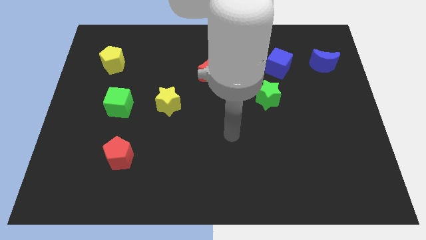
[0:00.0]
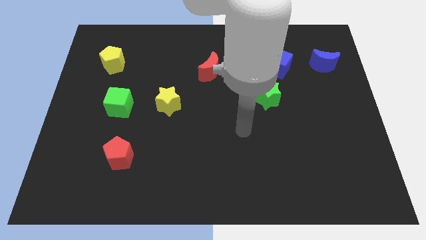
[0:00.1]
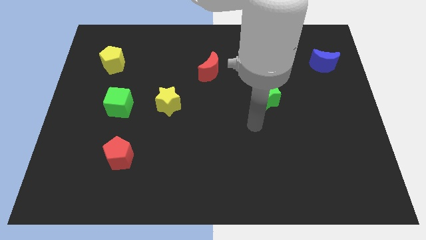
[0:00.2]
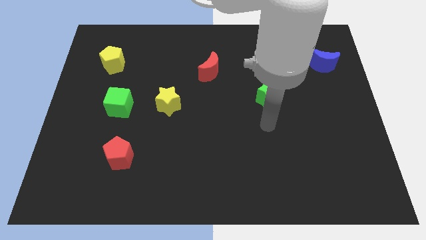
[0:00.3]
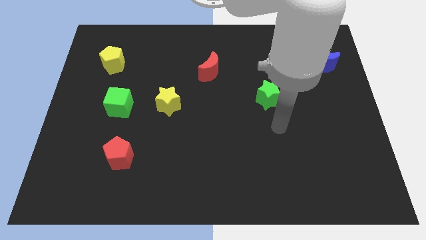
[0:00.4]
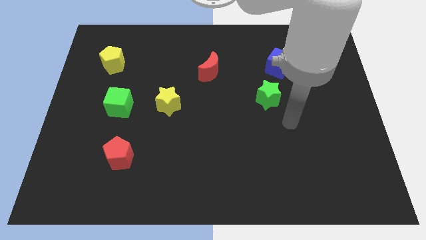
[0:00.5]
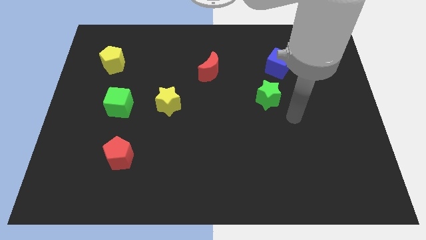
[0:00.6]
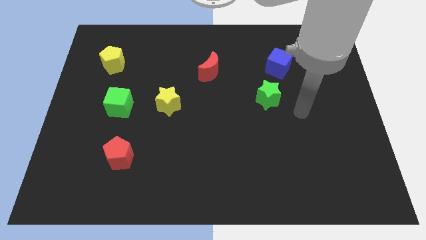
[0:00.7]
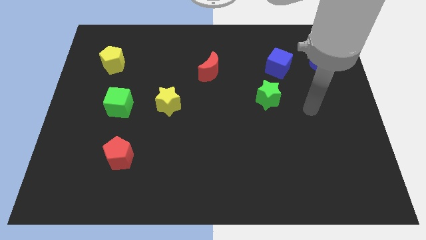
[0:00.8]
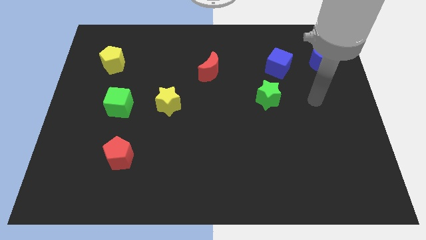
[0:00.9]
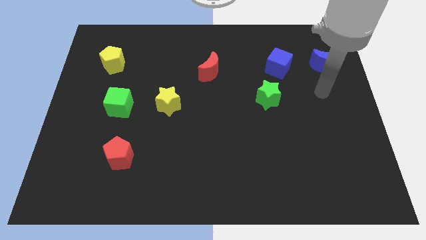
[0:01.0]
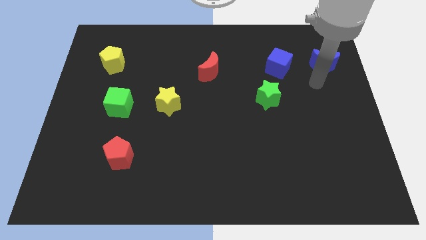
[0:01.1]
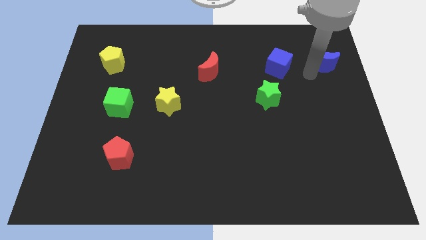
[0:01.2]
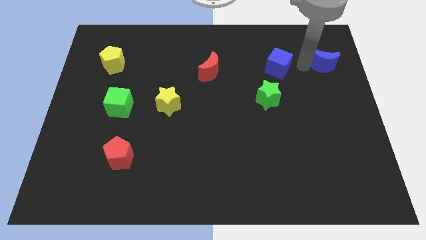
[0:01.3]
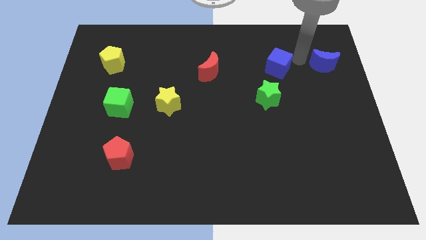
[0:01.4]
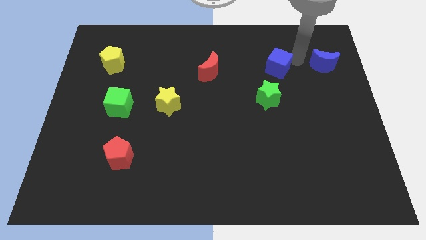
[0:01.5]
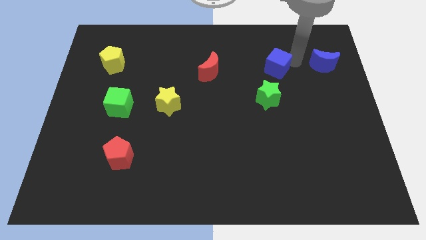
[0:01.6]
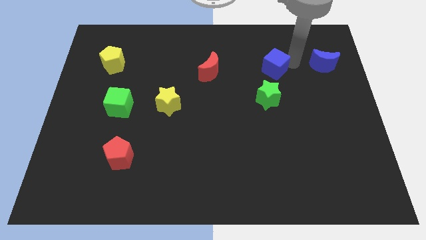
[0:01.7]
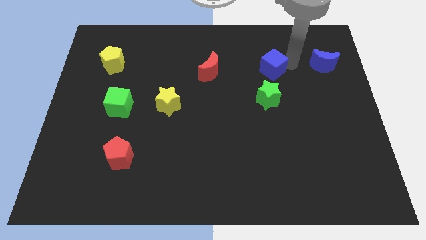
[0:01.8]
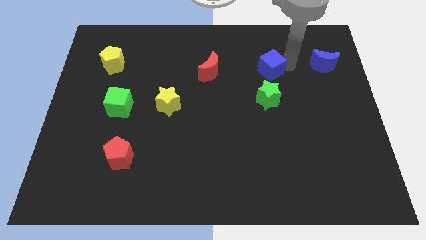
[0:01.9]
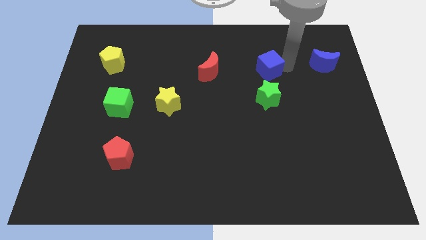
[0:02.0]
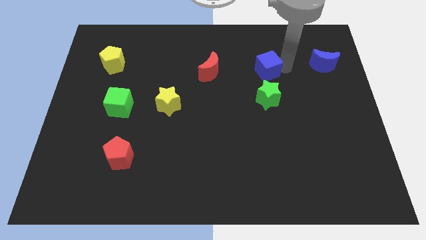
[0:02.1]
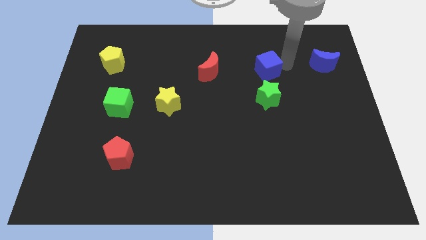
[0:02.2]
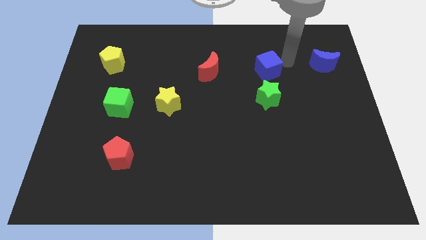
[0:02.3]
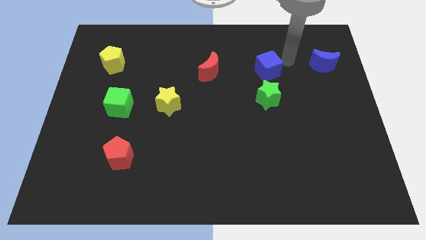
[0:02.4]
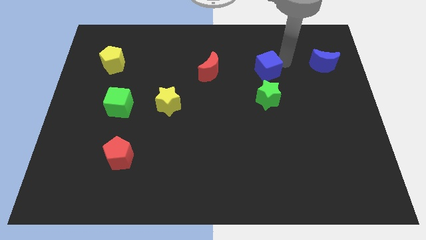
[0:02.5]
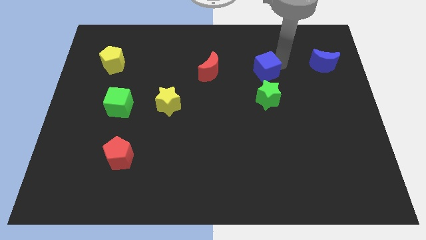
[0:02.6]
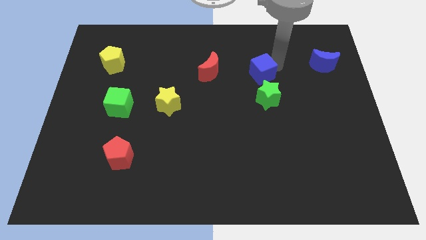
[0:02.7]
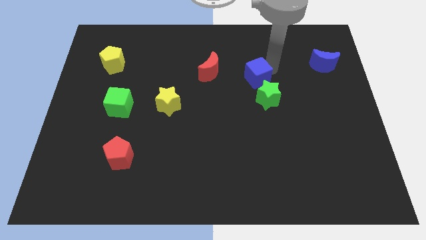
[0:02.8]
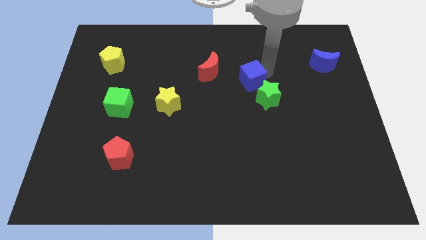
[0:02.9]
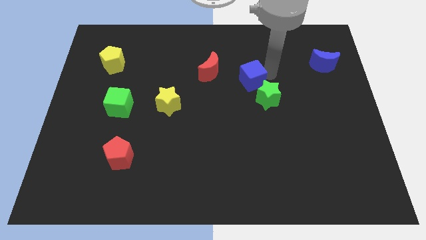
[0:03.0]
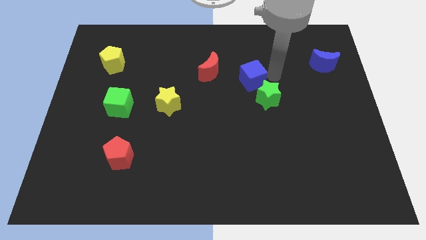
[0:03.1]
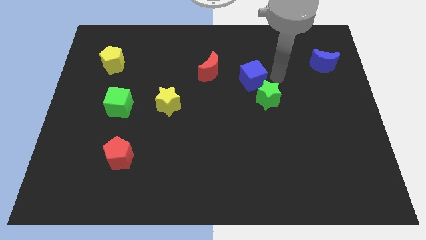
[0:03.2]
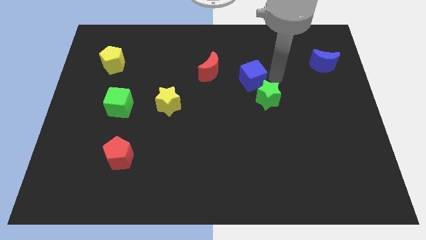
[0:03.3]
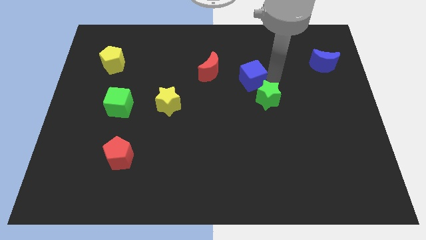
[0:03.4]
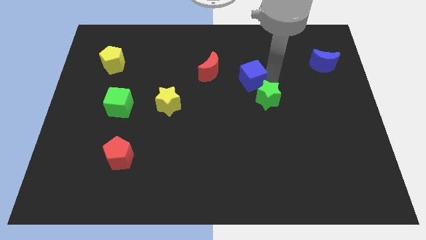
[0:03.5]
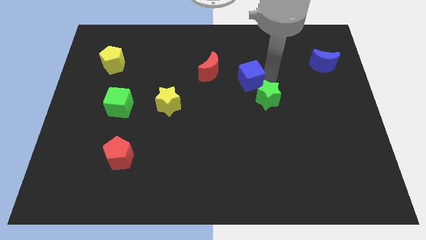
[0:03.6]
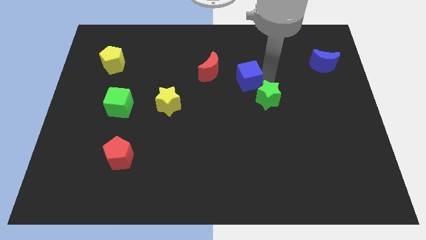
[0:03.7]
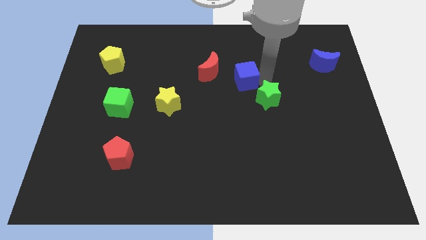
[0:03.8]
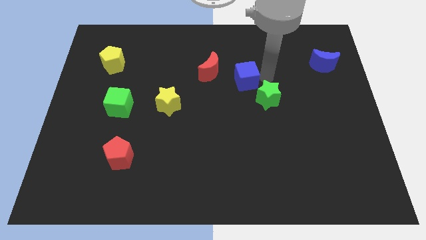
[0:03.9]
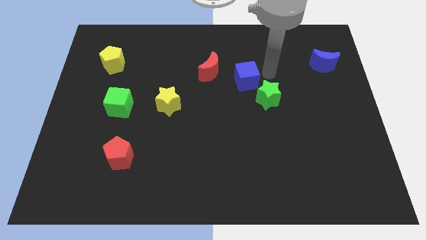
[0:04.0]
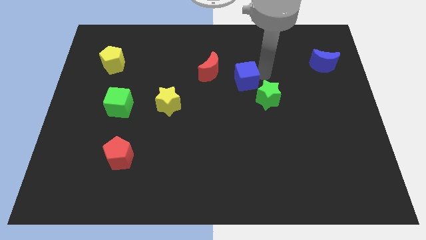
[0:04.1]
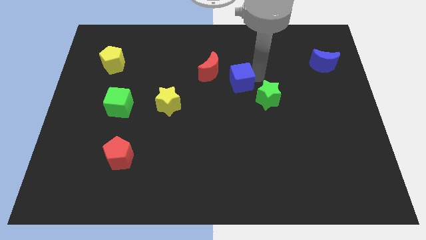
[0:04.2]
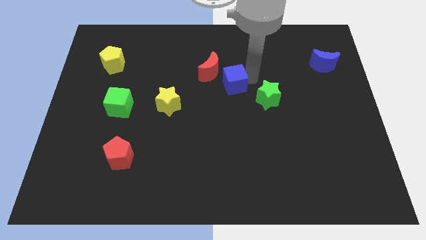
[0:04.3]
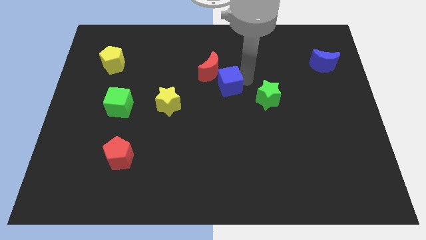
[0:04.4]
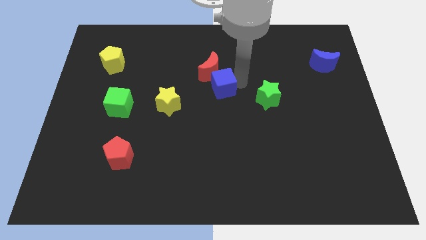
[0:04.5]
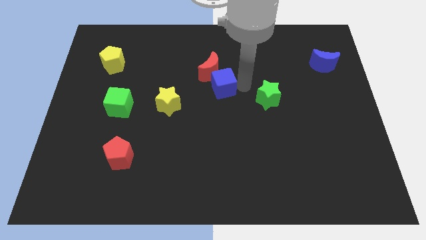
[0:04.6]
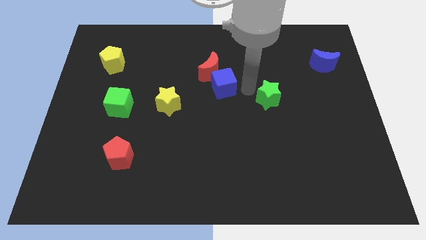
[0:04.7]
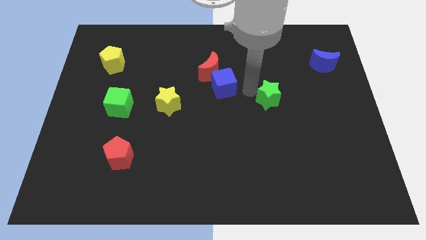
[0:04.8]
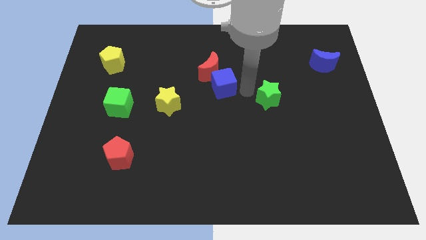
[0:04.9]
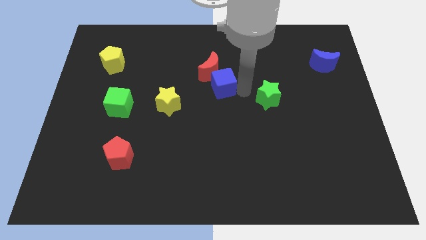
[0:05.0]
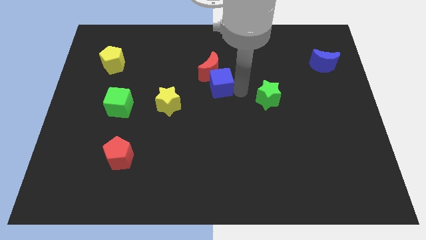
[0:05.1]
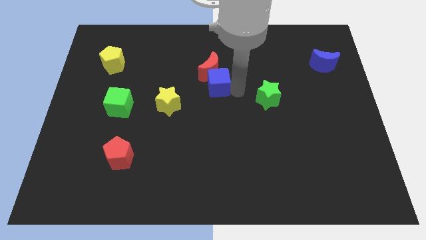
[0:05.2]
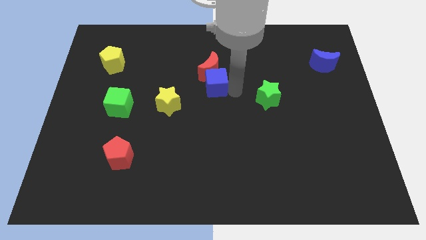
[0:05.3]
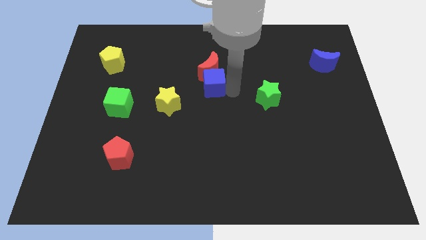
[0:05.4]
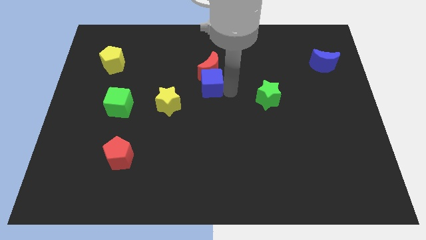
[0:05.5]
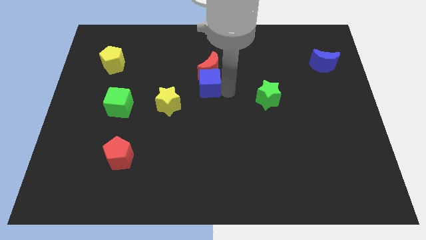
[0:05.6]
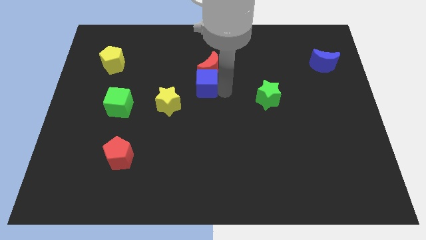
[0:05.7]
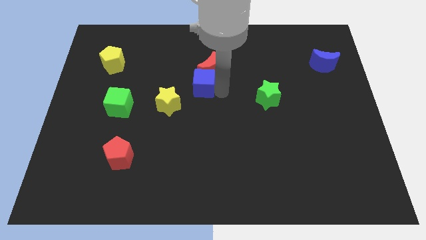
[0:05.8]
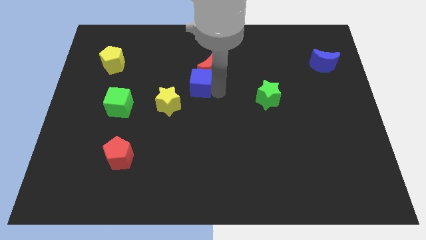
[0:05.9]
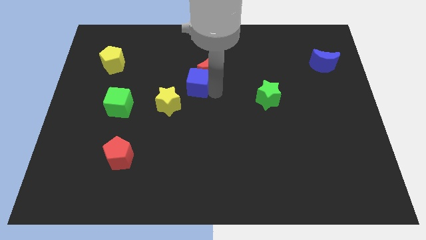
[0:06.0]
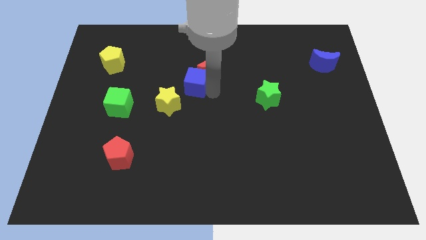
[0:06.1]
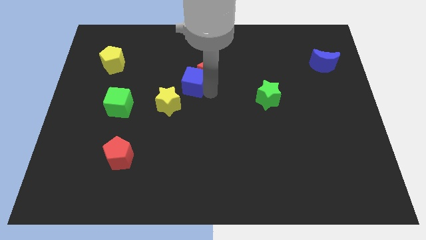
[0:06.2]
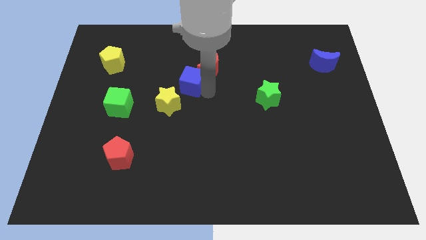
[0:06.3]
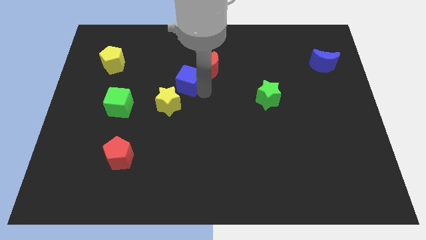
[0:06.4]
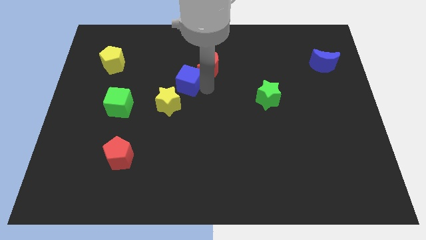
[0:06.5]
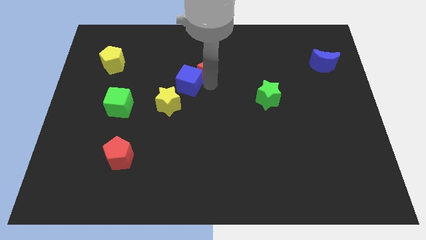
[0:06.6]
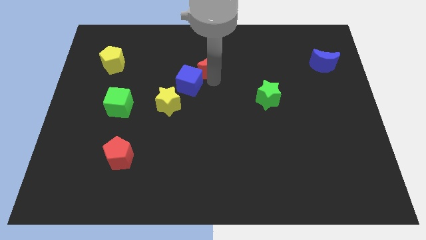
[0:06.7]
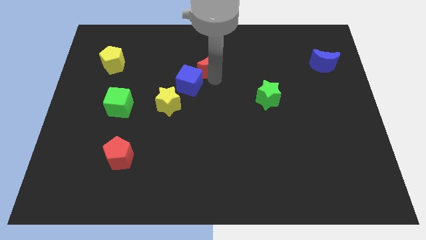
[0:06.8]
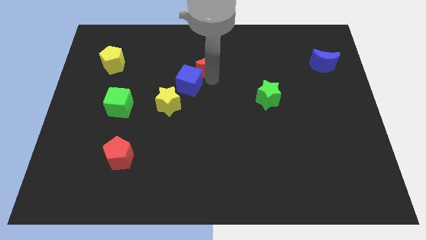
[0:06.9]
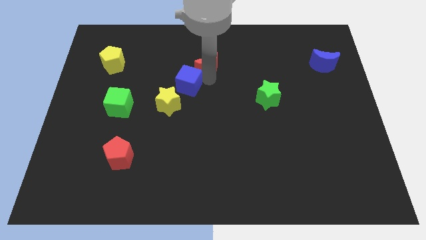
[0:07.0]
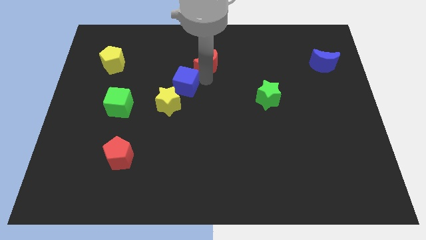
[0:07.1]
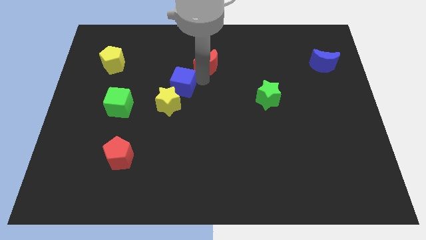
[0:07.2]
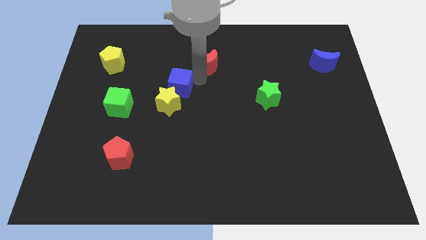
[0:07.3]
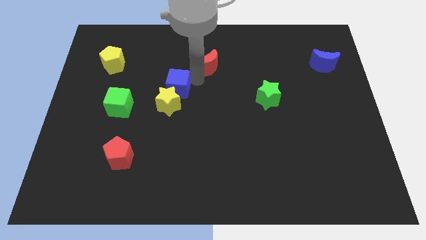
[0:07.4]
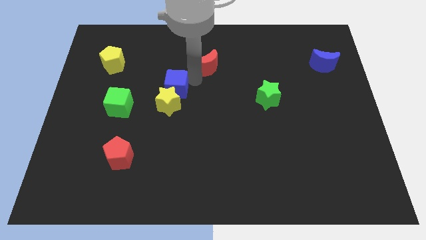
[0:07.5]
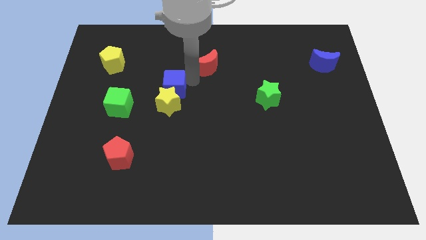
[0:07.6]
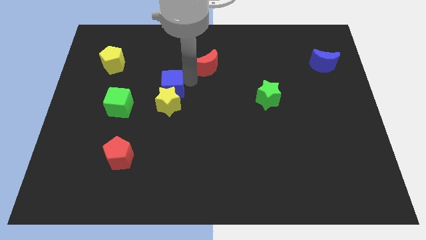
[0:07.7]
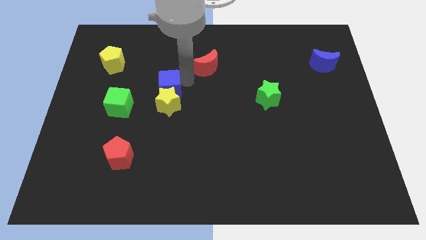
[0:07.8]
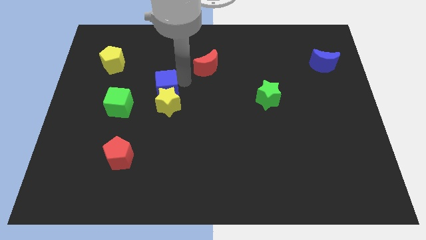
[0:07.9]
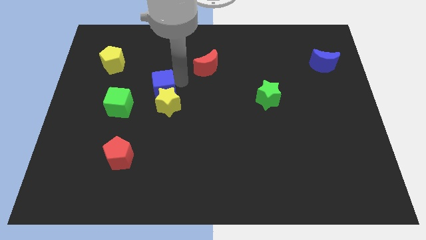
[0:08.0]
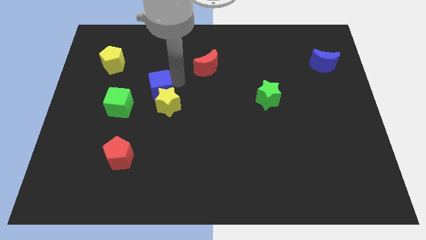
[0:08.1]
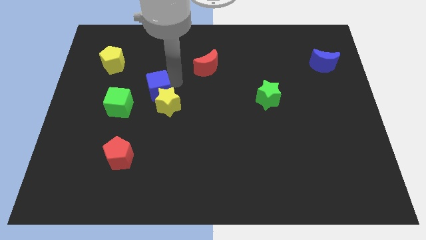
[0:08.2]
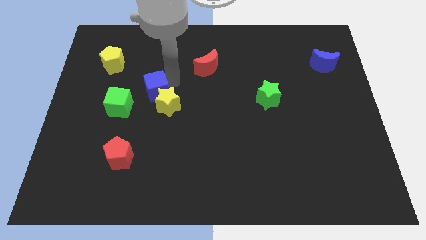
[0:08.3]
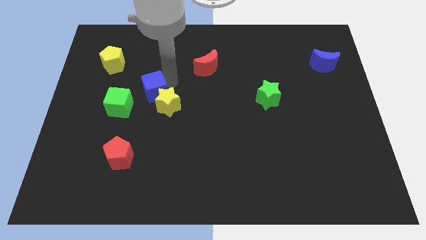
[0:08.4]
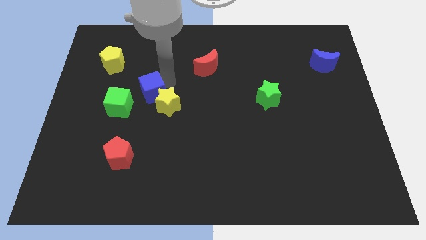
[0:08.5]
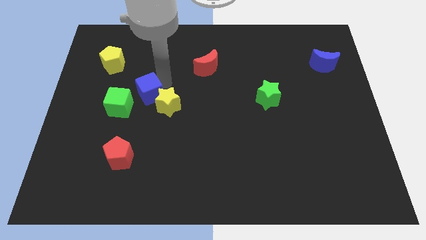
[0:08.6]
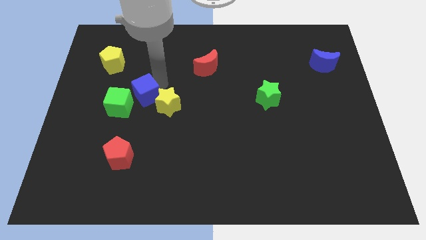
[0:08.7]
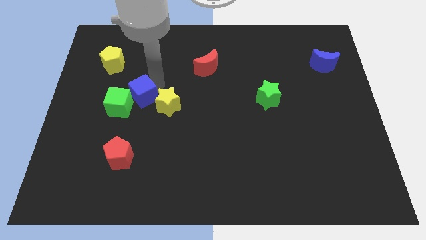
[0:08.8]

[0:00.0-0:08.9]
move the blue cube next to the green cube
